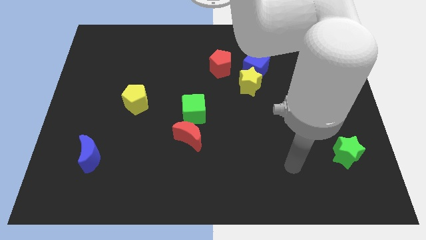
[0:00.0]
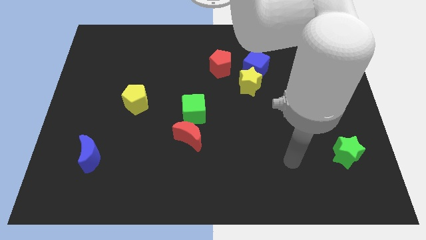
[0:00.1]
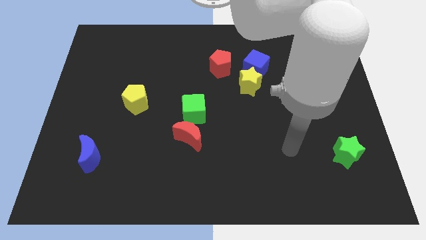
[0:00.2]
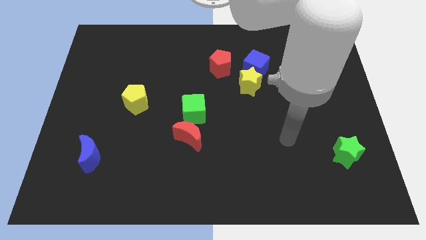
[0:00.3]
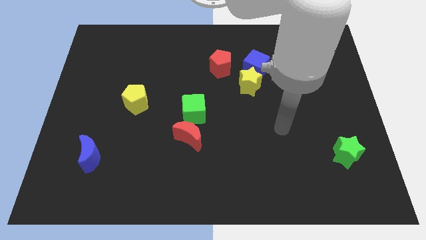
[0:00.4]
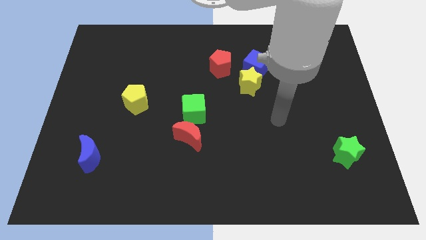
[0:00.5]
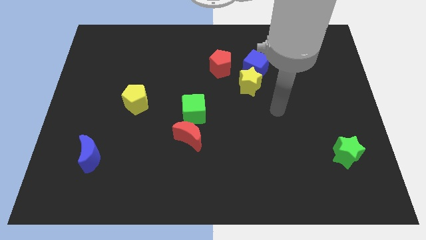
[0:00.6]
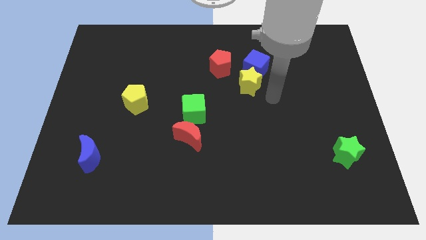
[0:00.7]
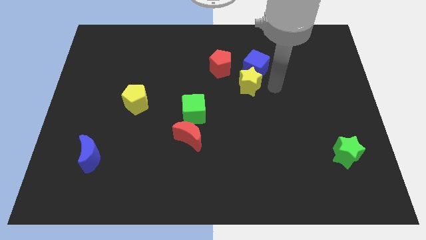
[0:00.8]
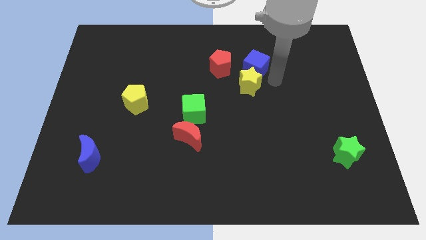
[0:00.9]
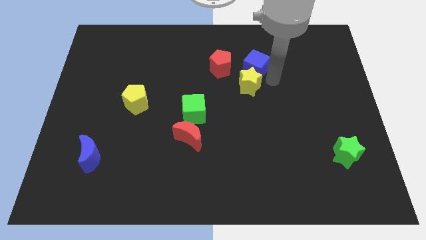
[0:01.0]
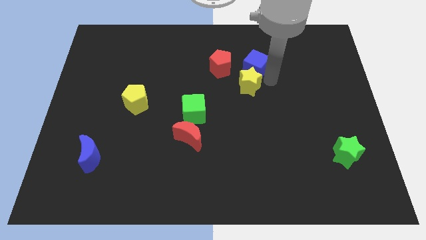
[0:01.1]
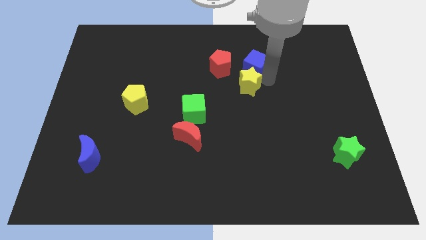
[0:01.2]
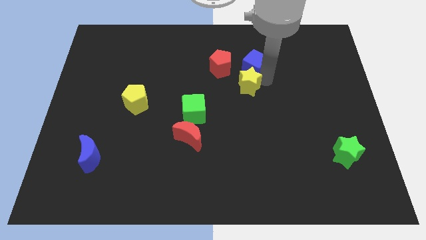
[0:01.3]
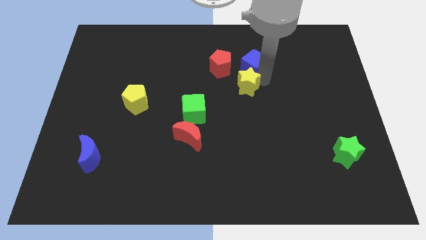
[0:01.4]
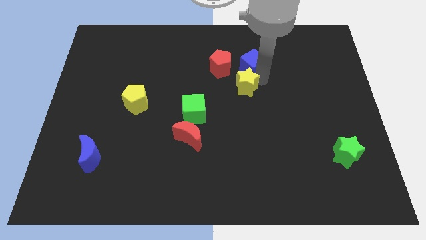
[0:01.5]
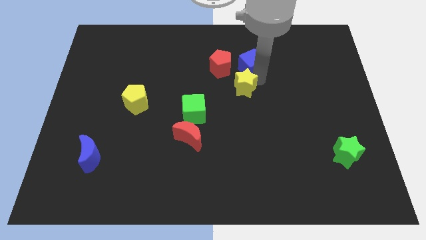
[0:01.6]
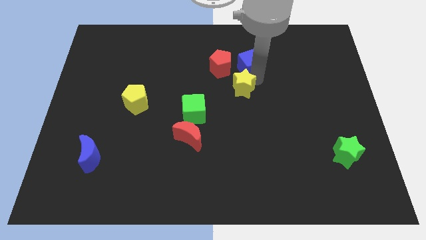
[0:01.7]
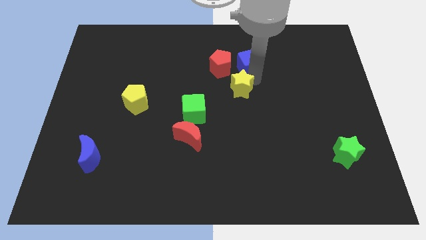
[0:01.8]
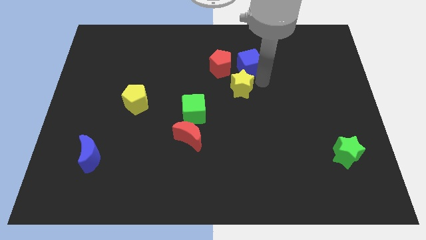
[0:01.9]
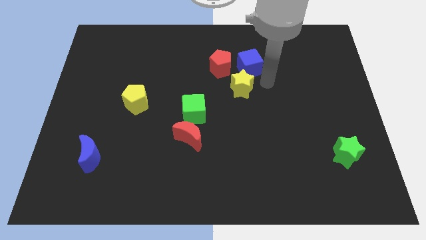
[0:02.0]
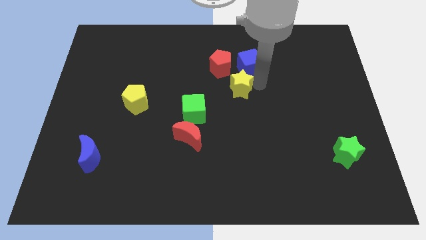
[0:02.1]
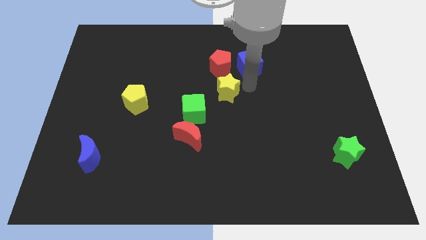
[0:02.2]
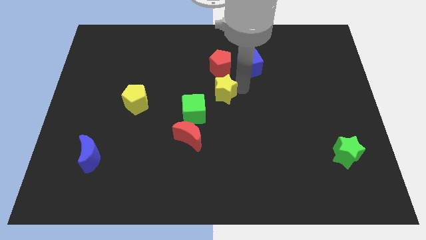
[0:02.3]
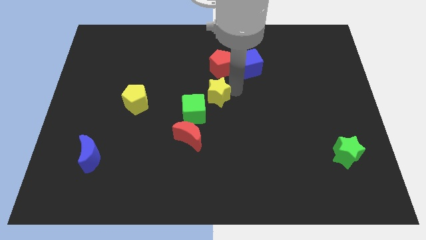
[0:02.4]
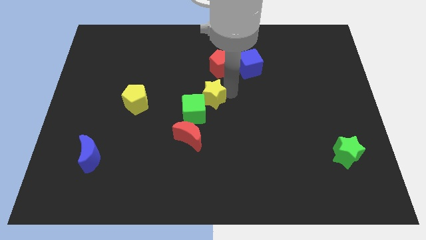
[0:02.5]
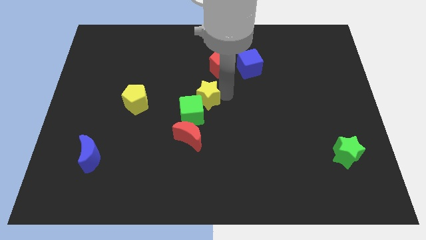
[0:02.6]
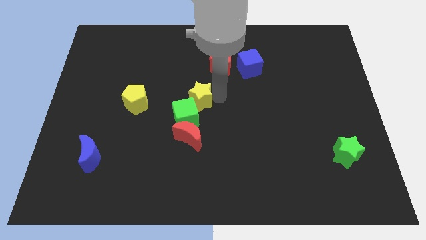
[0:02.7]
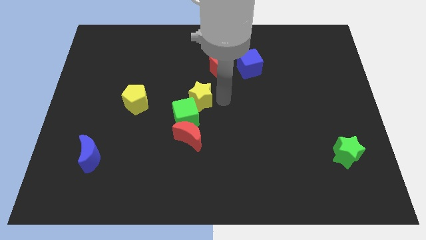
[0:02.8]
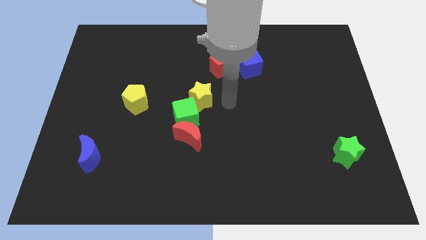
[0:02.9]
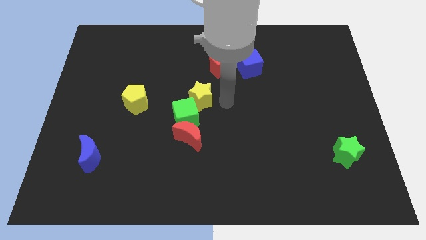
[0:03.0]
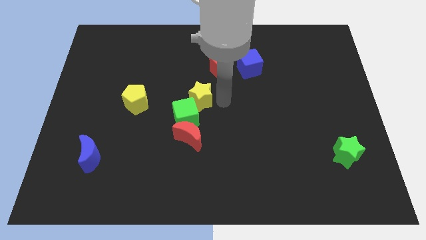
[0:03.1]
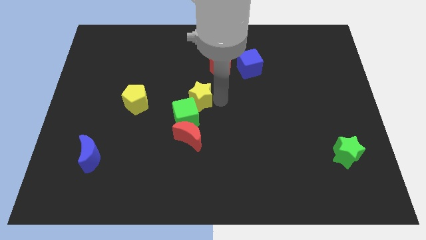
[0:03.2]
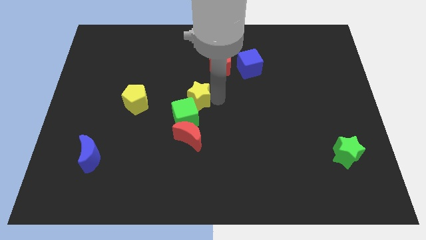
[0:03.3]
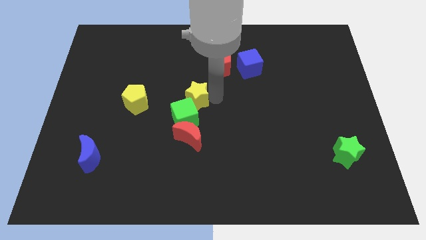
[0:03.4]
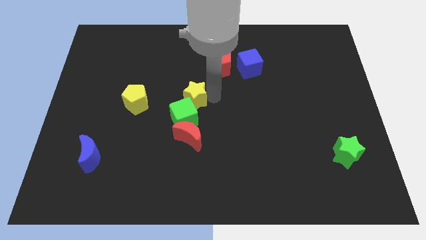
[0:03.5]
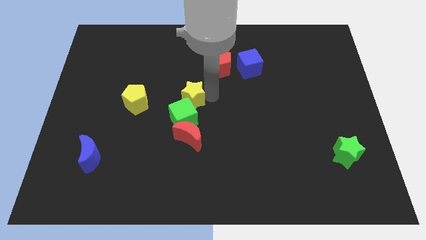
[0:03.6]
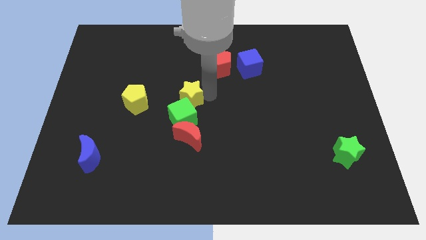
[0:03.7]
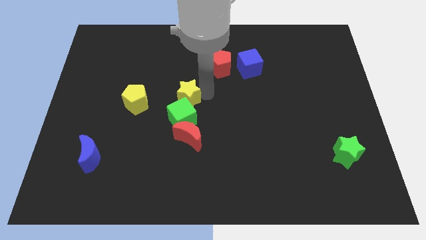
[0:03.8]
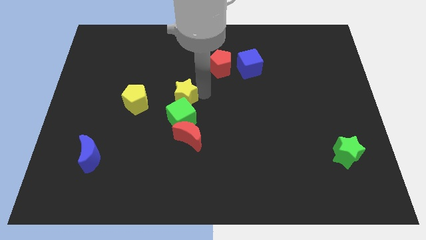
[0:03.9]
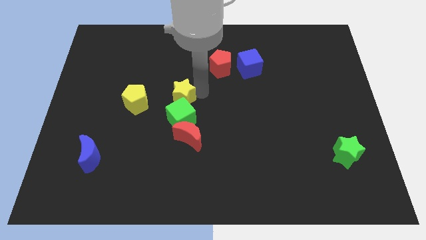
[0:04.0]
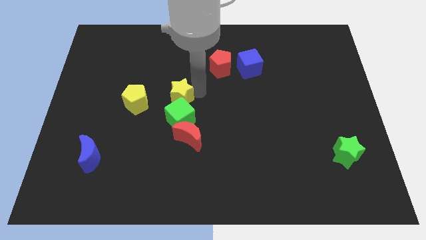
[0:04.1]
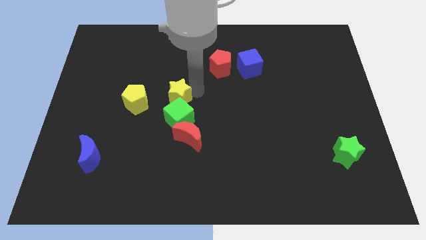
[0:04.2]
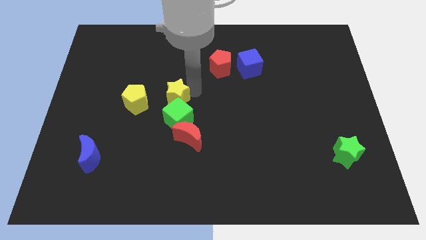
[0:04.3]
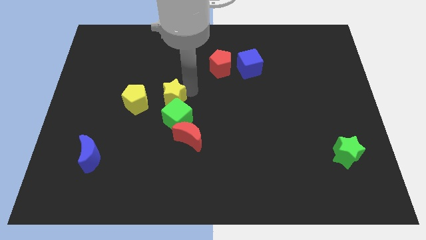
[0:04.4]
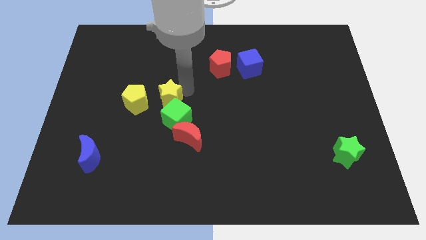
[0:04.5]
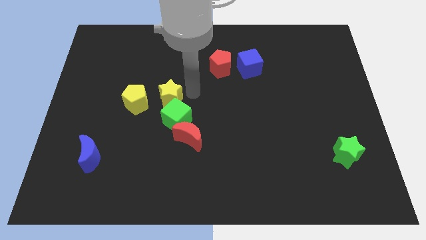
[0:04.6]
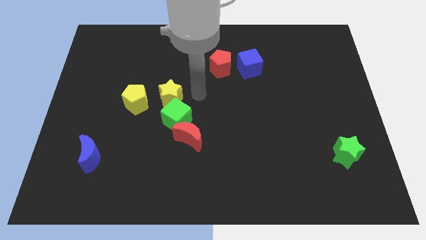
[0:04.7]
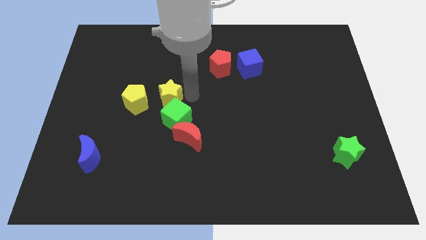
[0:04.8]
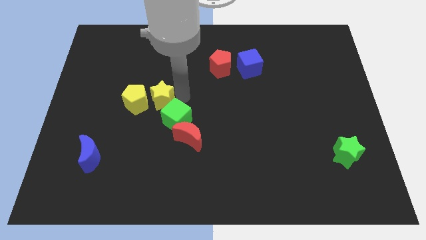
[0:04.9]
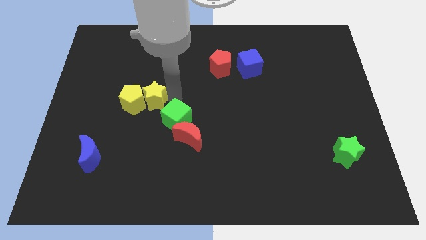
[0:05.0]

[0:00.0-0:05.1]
move the yellow star close to the yellow pentagon

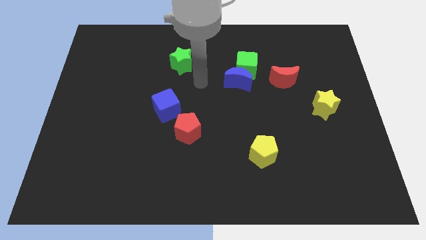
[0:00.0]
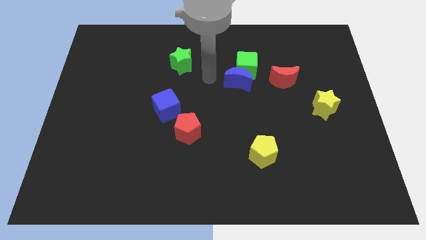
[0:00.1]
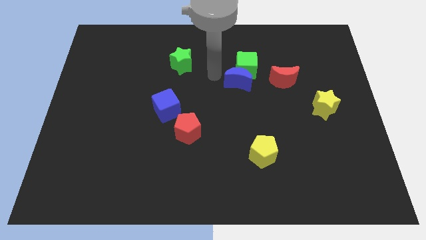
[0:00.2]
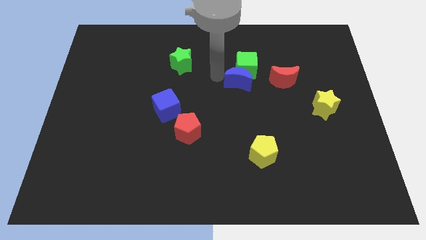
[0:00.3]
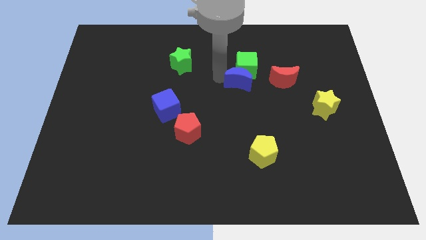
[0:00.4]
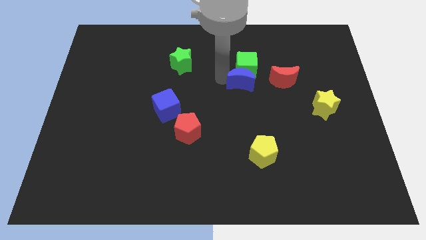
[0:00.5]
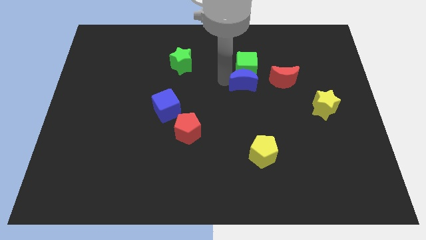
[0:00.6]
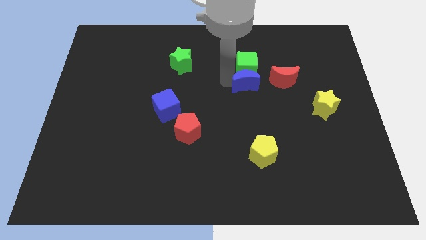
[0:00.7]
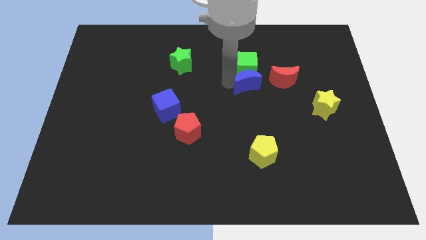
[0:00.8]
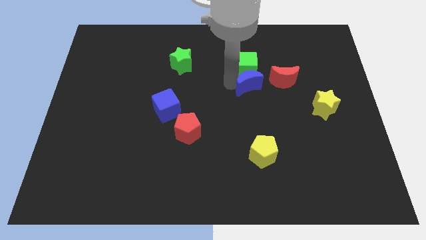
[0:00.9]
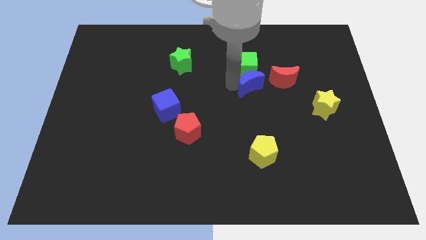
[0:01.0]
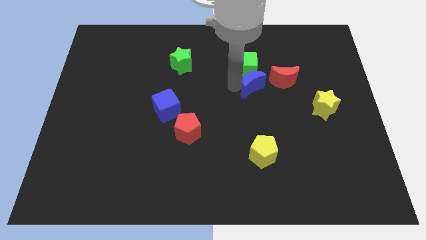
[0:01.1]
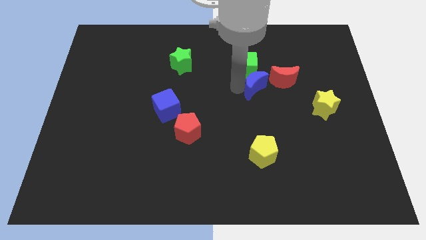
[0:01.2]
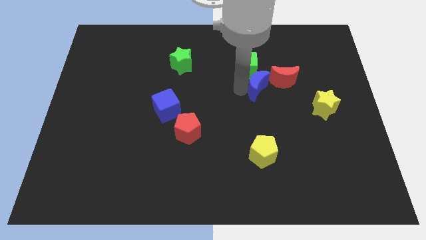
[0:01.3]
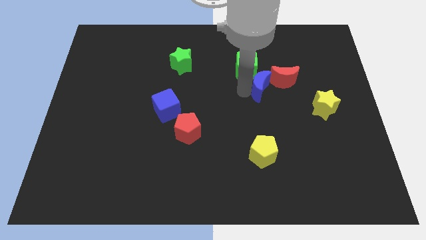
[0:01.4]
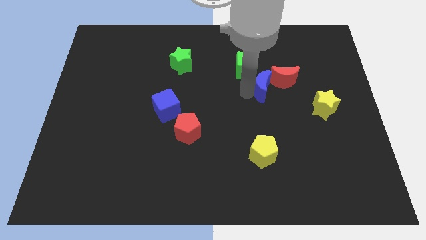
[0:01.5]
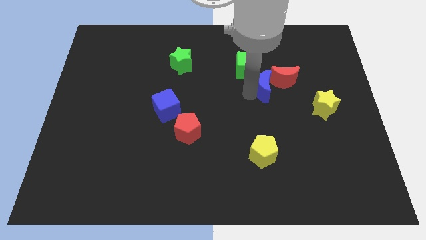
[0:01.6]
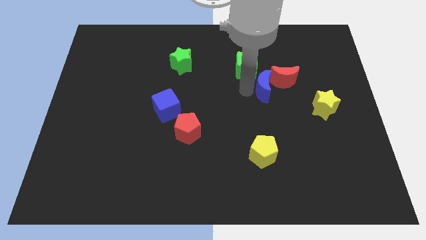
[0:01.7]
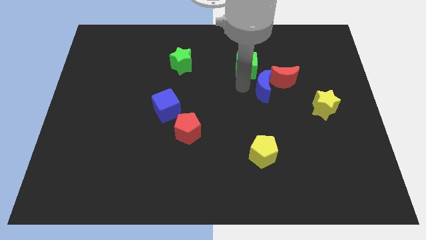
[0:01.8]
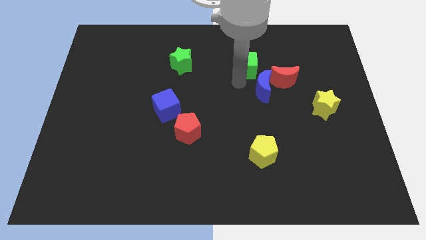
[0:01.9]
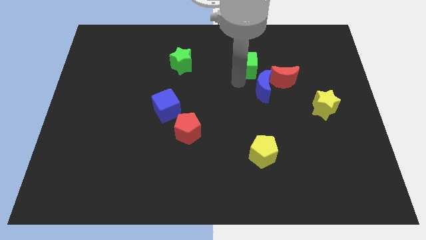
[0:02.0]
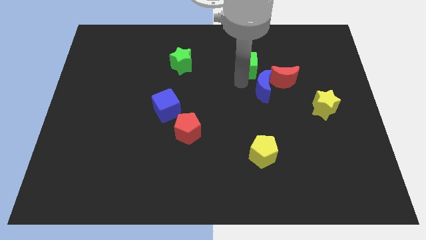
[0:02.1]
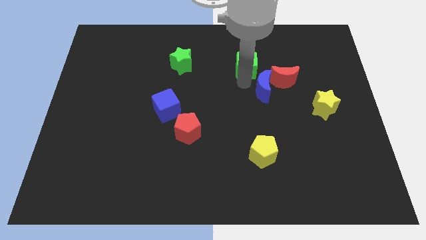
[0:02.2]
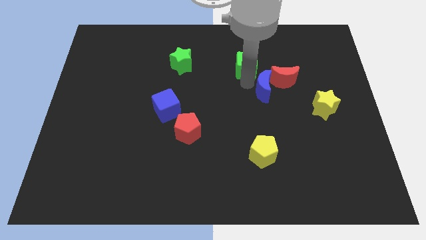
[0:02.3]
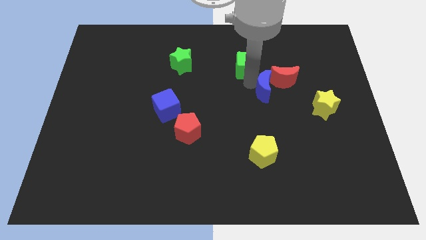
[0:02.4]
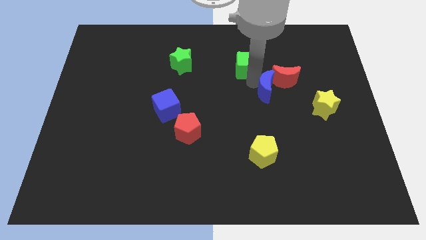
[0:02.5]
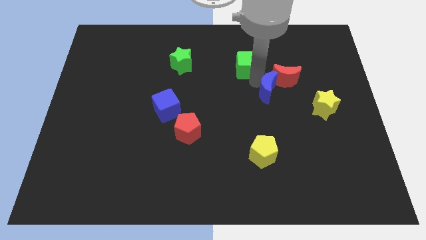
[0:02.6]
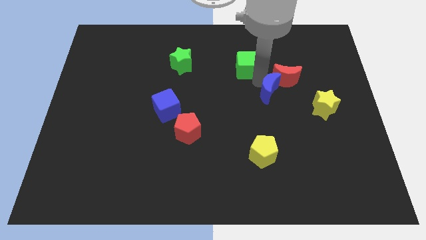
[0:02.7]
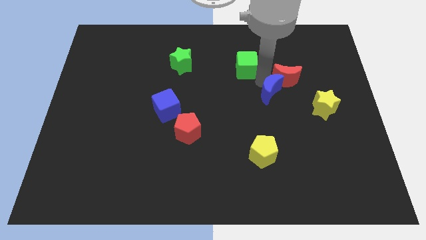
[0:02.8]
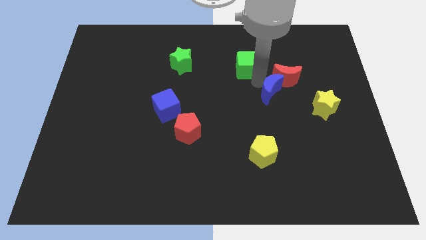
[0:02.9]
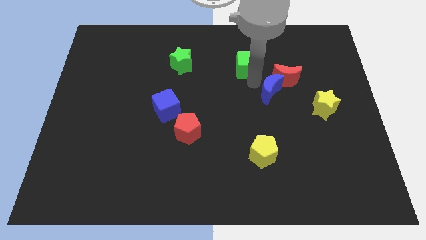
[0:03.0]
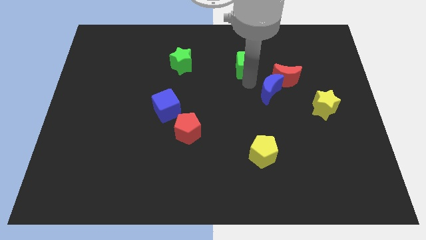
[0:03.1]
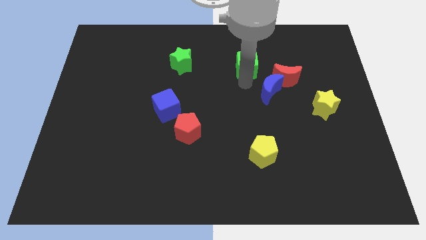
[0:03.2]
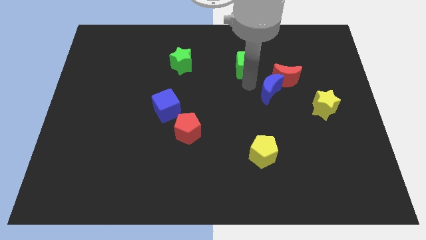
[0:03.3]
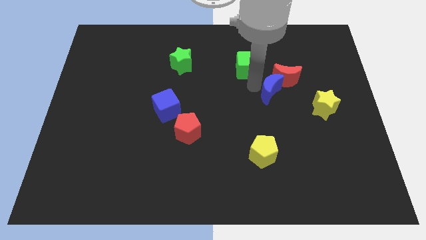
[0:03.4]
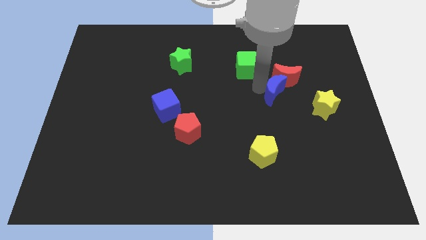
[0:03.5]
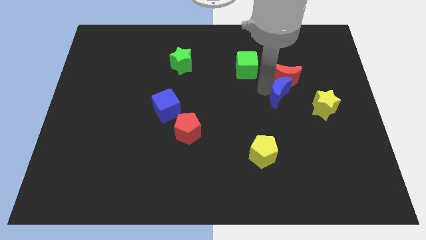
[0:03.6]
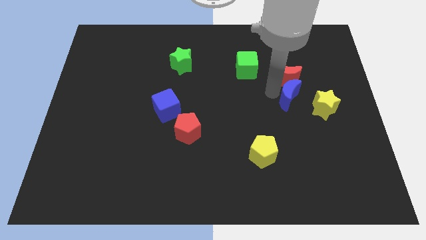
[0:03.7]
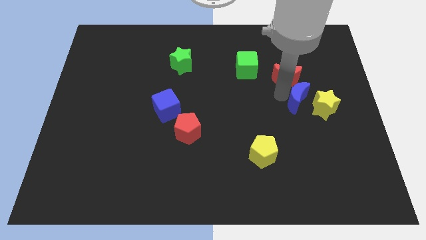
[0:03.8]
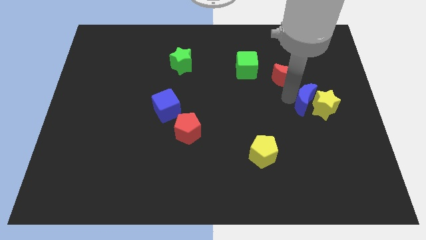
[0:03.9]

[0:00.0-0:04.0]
move the blue moon to the yellow star
